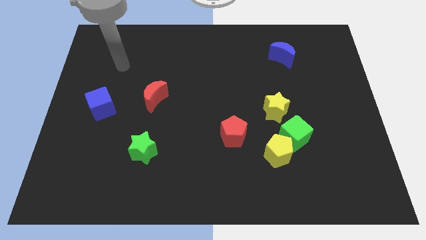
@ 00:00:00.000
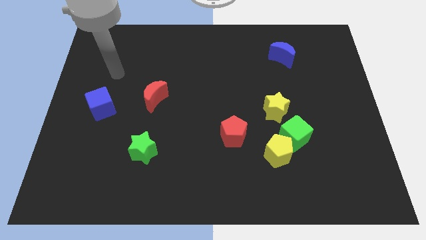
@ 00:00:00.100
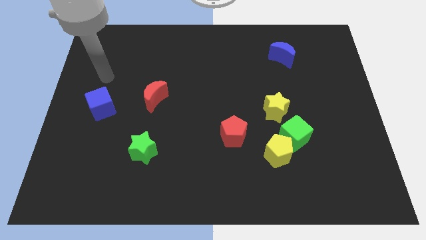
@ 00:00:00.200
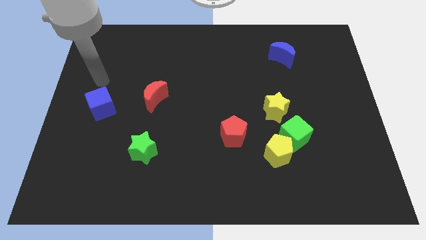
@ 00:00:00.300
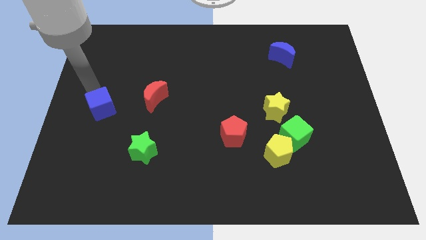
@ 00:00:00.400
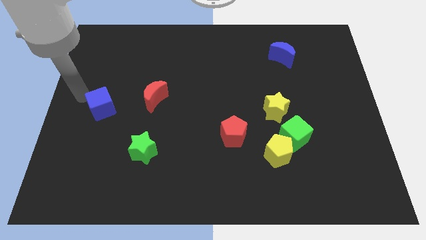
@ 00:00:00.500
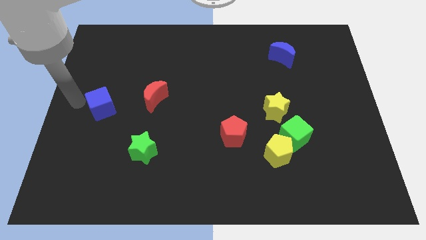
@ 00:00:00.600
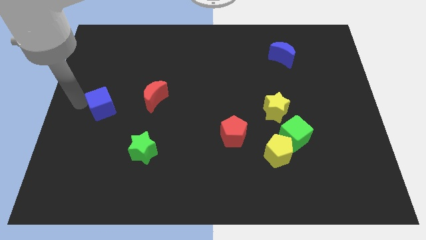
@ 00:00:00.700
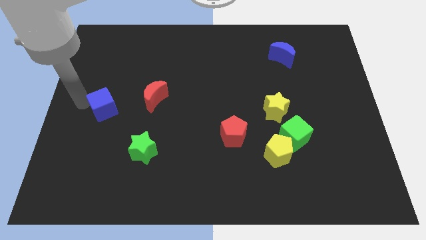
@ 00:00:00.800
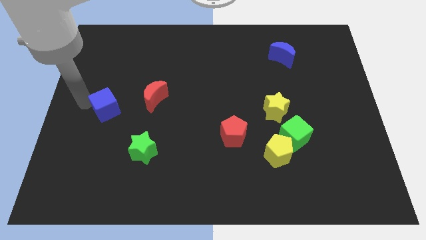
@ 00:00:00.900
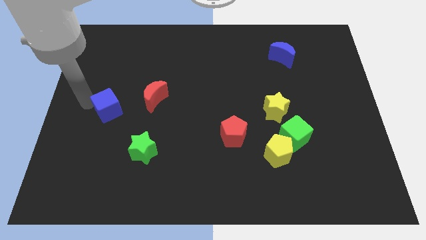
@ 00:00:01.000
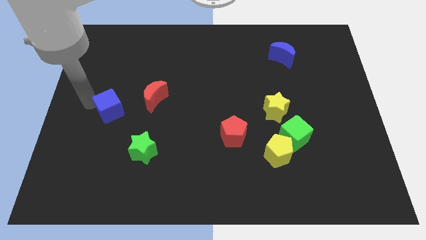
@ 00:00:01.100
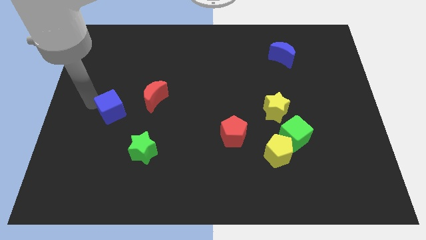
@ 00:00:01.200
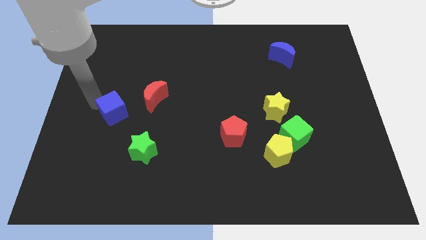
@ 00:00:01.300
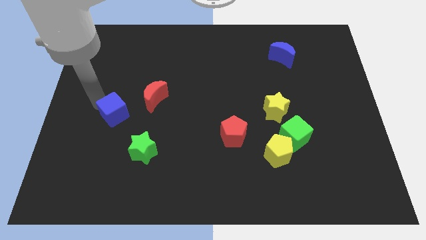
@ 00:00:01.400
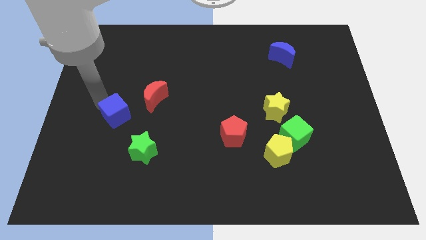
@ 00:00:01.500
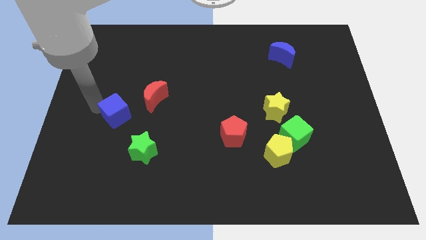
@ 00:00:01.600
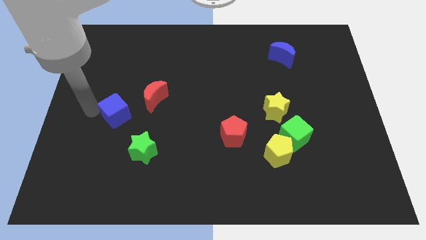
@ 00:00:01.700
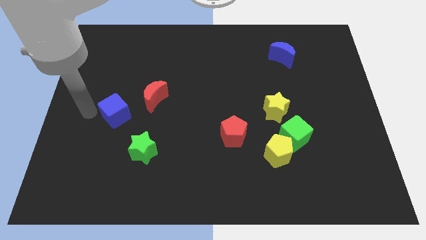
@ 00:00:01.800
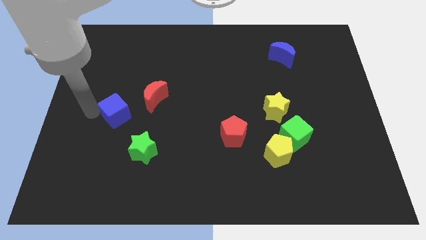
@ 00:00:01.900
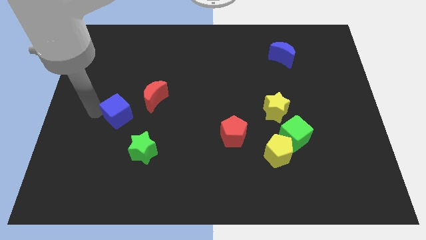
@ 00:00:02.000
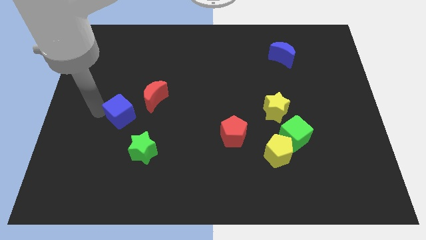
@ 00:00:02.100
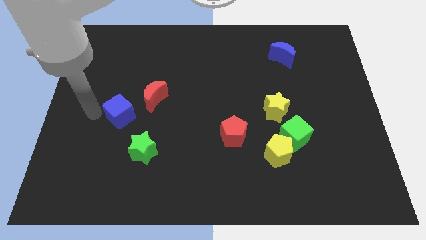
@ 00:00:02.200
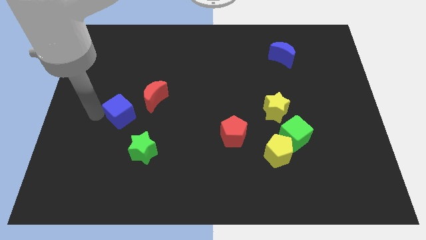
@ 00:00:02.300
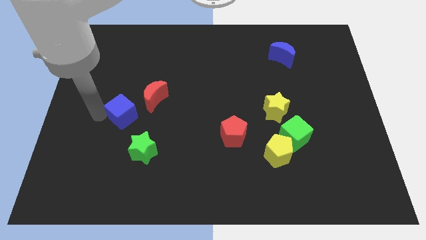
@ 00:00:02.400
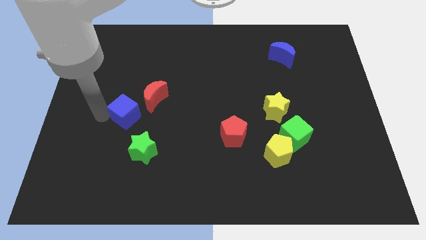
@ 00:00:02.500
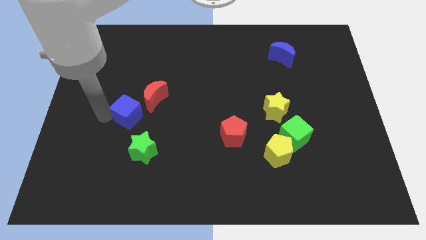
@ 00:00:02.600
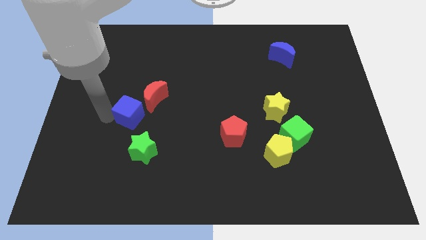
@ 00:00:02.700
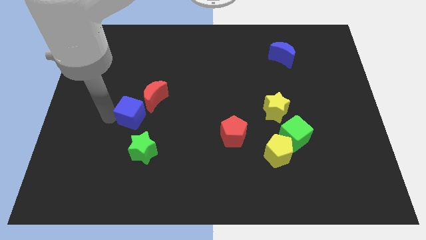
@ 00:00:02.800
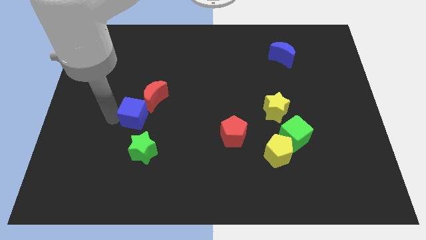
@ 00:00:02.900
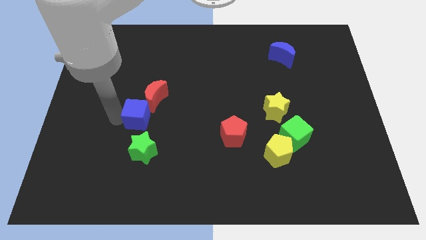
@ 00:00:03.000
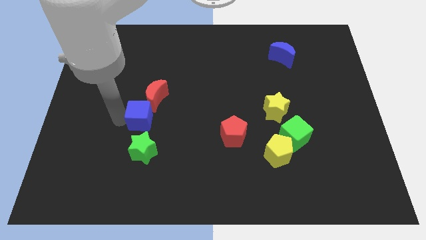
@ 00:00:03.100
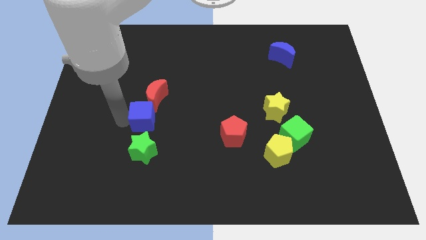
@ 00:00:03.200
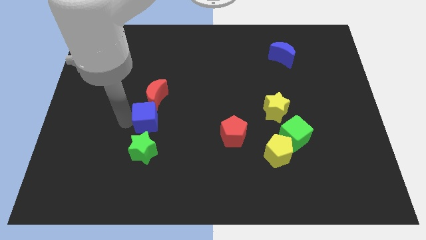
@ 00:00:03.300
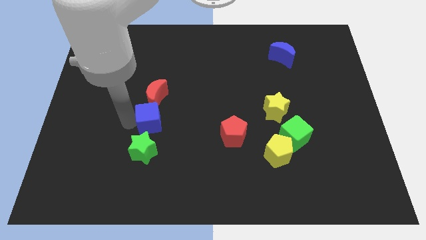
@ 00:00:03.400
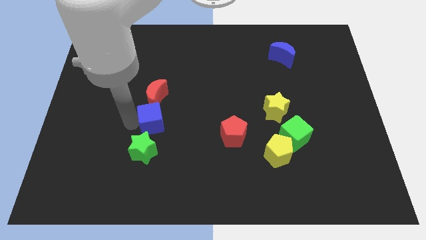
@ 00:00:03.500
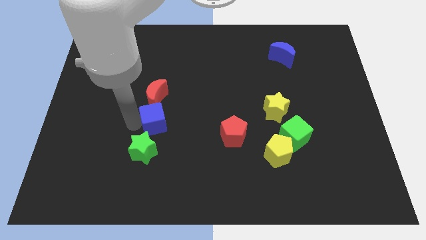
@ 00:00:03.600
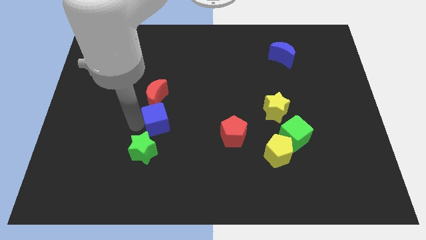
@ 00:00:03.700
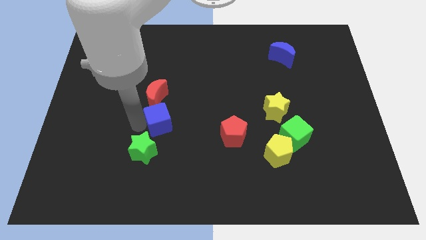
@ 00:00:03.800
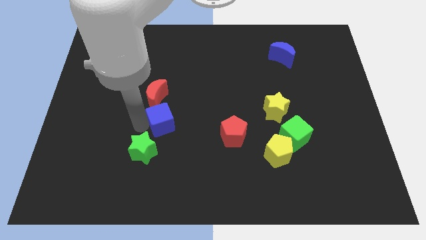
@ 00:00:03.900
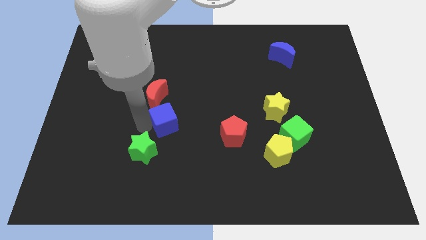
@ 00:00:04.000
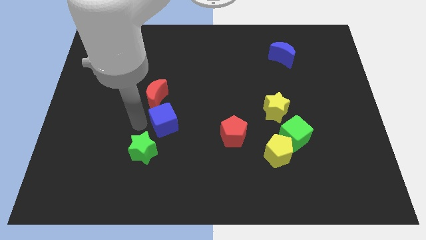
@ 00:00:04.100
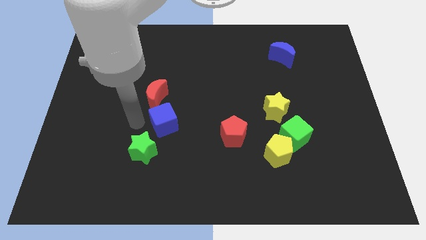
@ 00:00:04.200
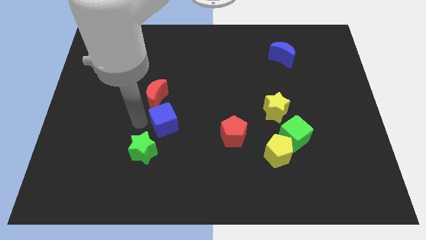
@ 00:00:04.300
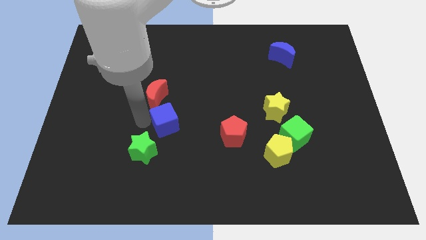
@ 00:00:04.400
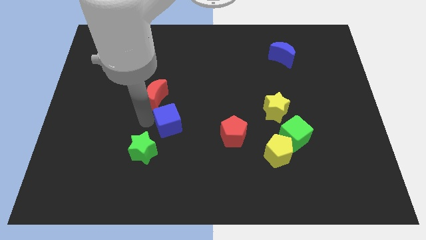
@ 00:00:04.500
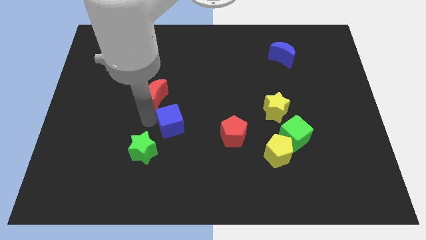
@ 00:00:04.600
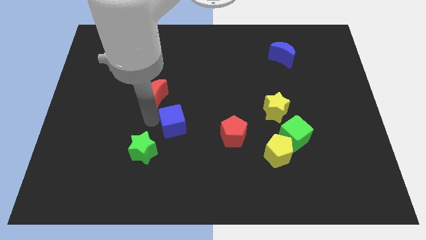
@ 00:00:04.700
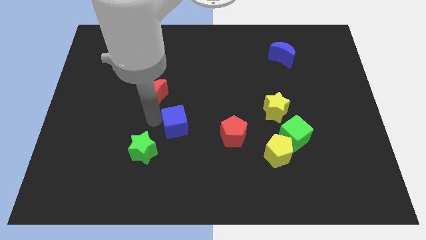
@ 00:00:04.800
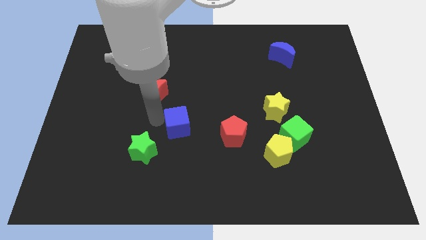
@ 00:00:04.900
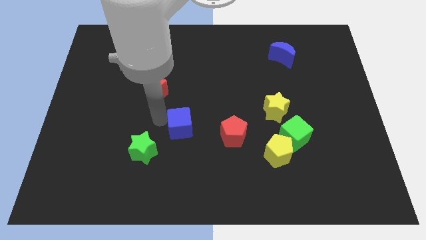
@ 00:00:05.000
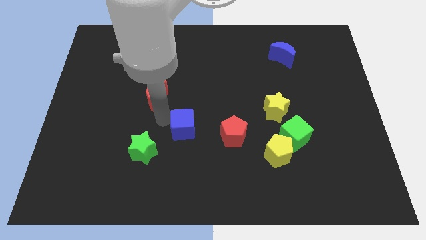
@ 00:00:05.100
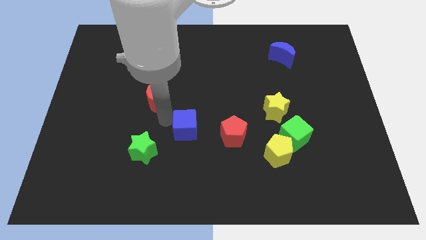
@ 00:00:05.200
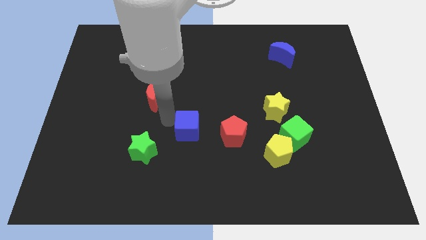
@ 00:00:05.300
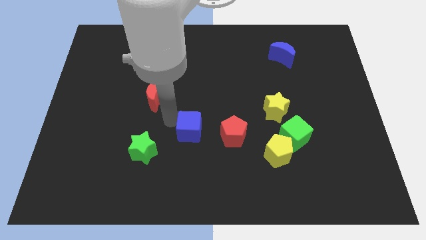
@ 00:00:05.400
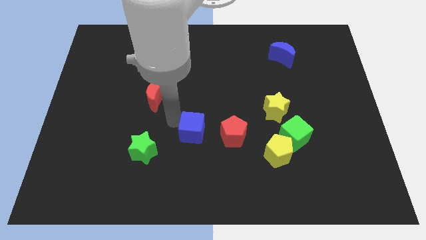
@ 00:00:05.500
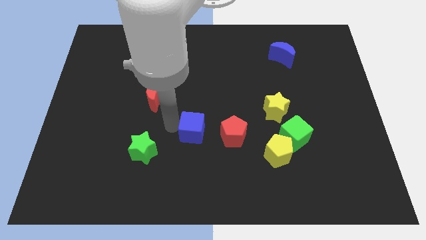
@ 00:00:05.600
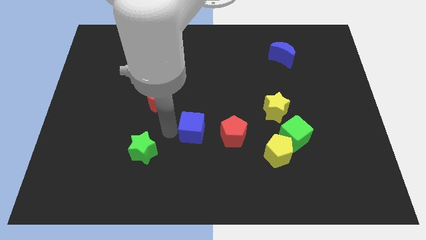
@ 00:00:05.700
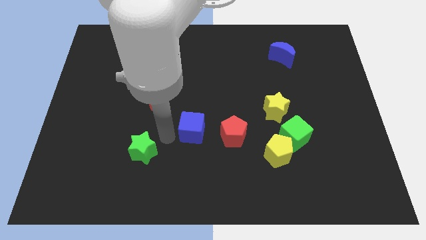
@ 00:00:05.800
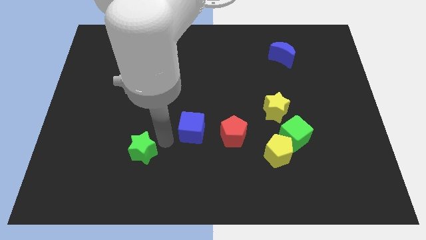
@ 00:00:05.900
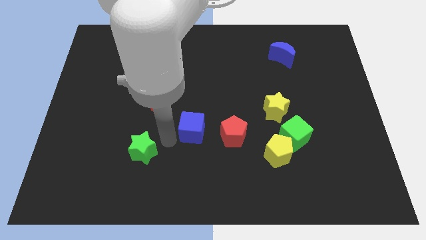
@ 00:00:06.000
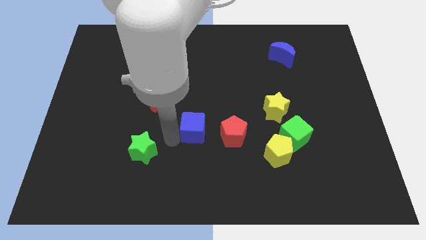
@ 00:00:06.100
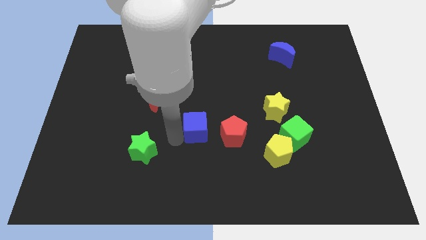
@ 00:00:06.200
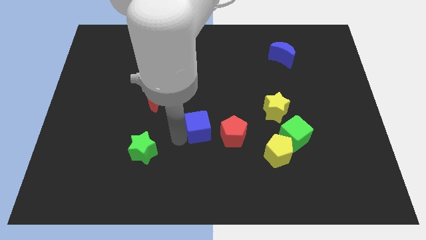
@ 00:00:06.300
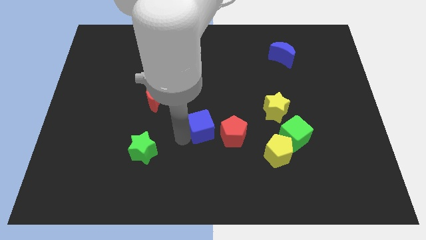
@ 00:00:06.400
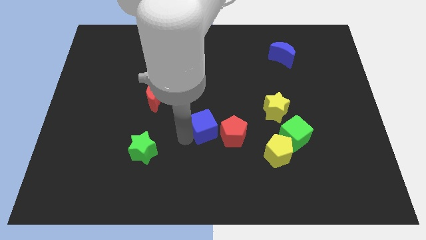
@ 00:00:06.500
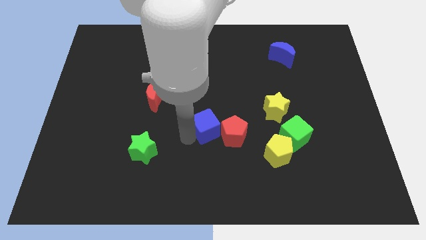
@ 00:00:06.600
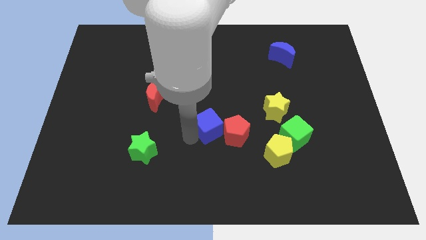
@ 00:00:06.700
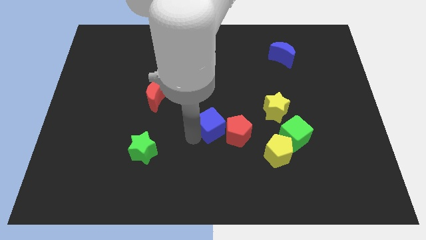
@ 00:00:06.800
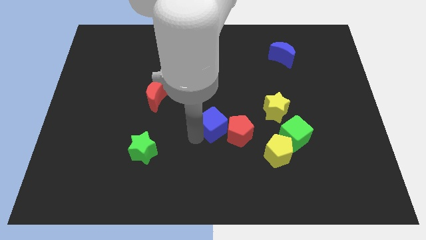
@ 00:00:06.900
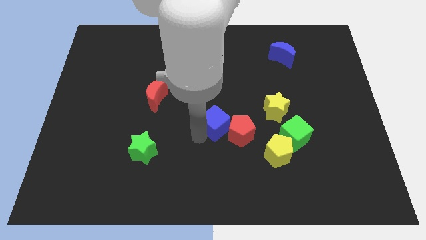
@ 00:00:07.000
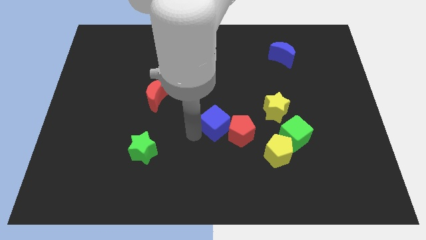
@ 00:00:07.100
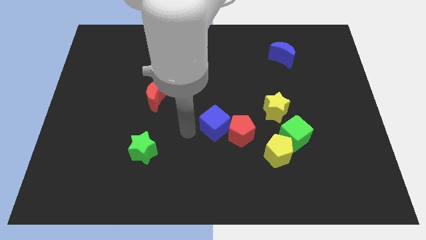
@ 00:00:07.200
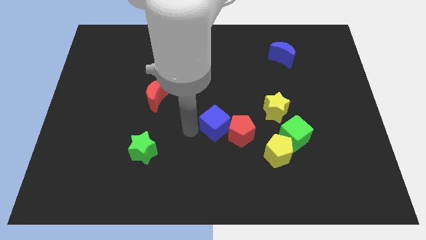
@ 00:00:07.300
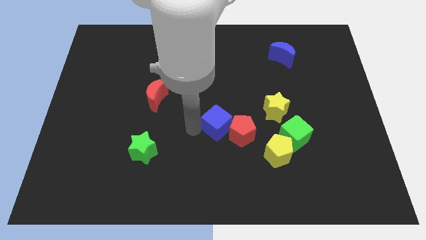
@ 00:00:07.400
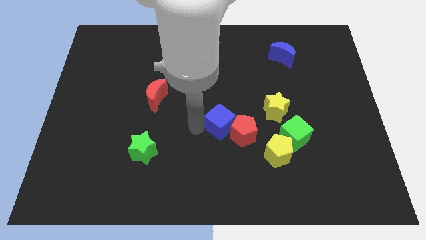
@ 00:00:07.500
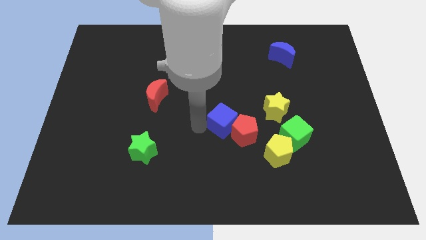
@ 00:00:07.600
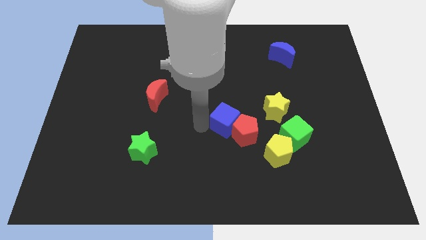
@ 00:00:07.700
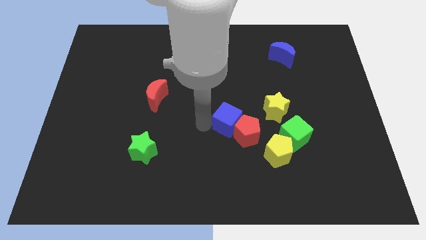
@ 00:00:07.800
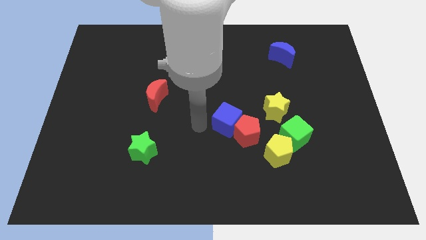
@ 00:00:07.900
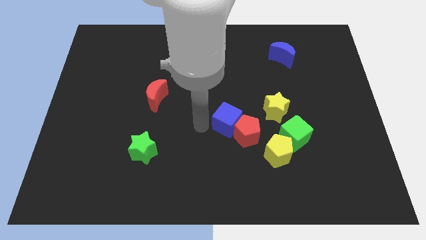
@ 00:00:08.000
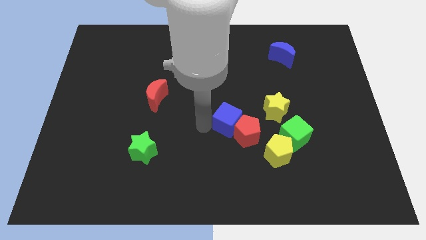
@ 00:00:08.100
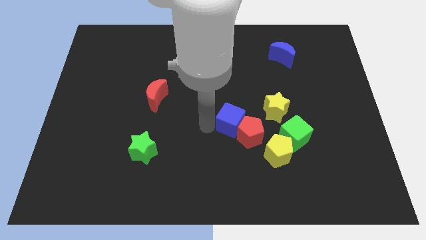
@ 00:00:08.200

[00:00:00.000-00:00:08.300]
push the blue cube diagonally up and to the left of the yellow pentagon
